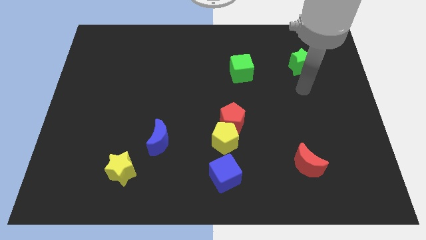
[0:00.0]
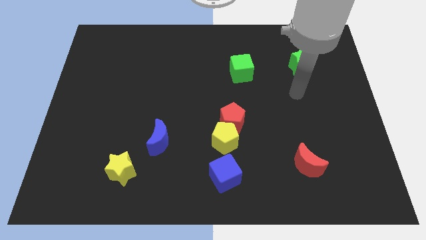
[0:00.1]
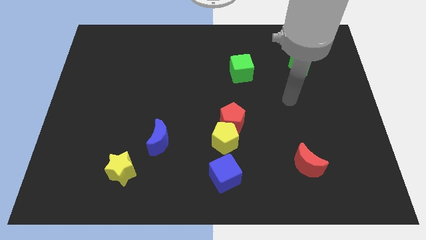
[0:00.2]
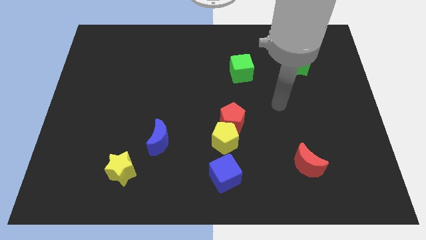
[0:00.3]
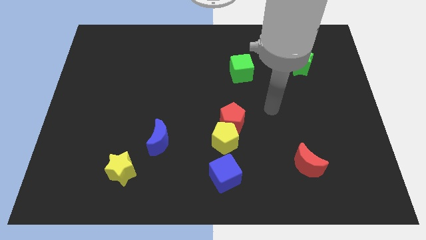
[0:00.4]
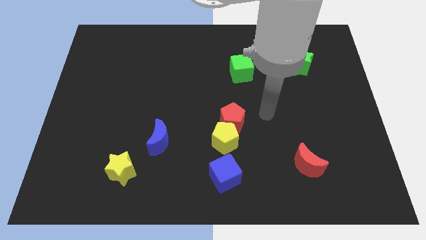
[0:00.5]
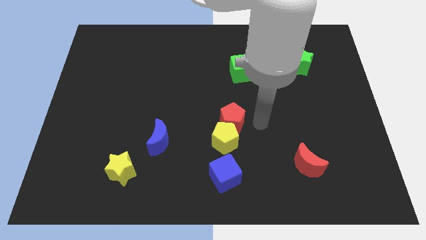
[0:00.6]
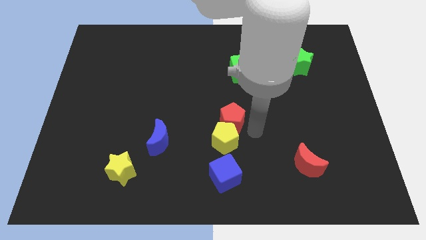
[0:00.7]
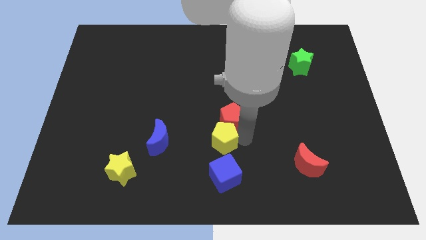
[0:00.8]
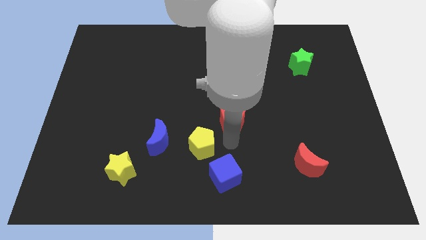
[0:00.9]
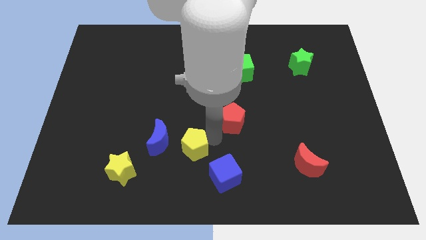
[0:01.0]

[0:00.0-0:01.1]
separate the red pentagon from the yellow pentagon

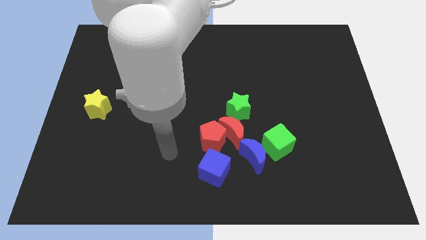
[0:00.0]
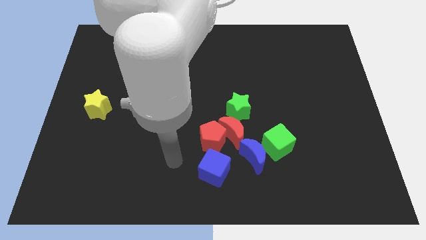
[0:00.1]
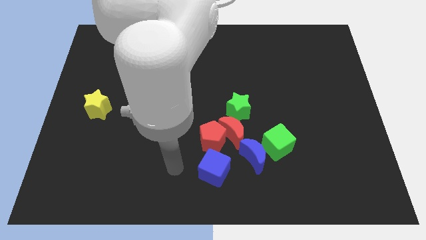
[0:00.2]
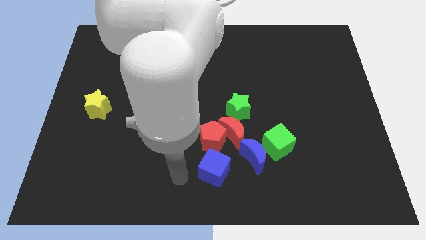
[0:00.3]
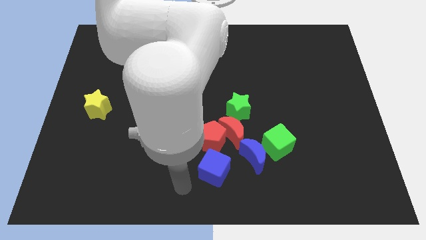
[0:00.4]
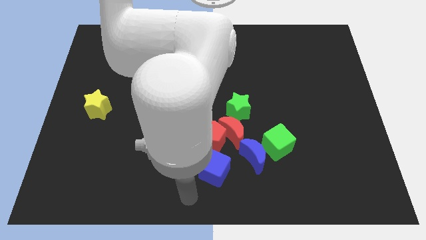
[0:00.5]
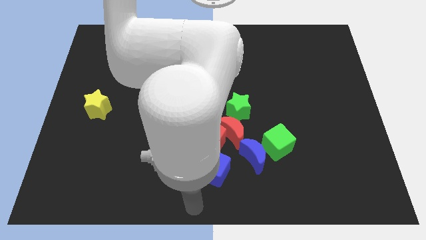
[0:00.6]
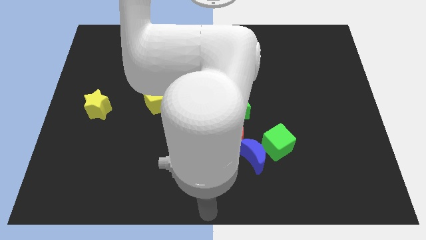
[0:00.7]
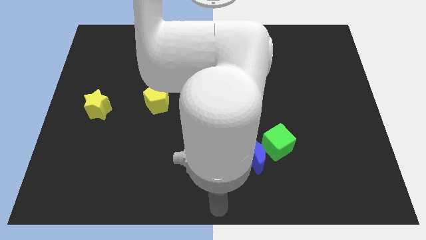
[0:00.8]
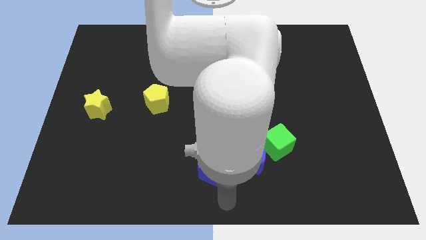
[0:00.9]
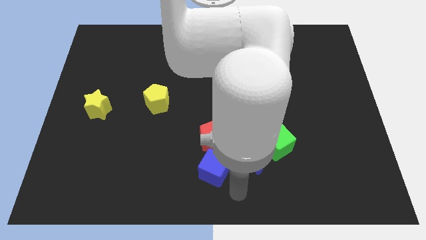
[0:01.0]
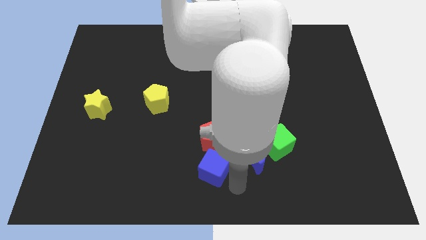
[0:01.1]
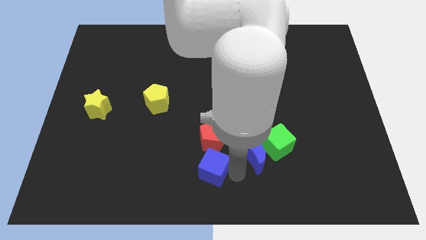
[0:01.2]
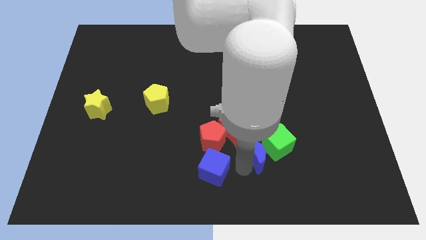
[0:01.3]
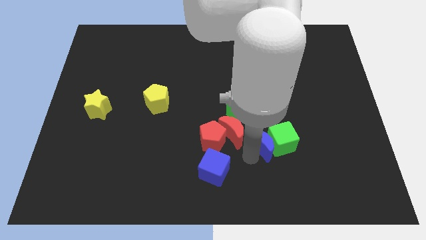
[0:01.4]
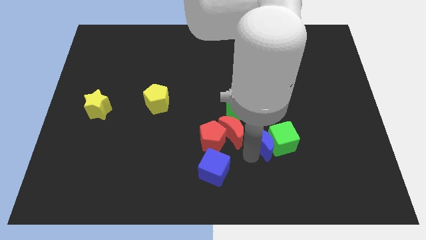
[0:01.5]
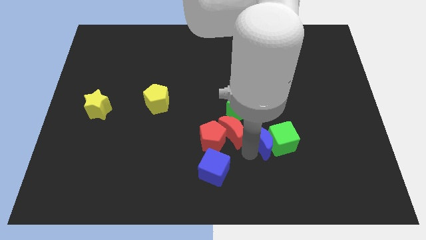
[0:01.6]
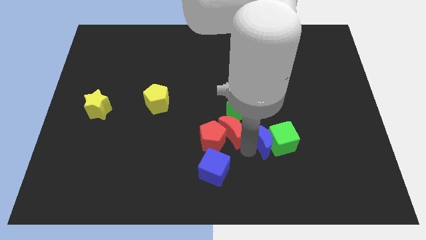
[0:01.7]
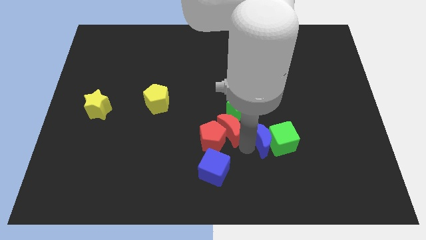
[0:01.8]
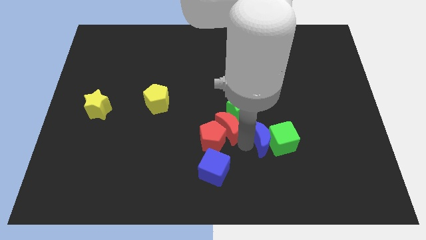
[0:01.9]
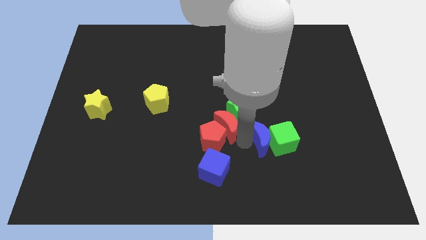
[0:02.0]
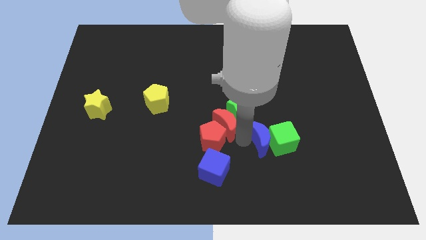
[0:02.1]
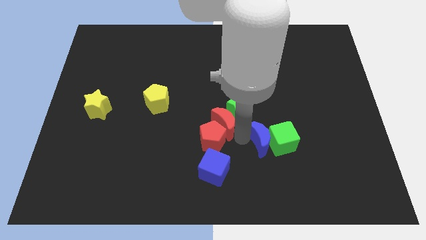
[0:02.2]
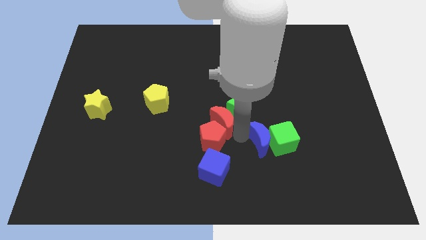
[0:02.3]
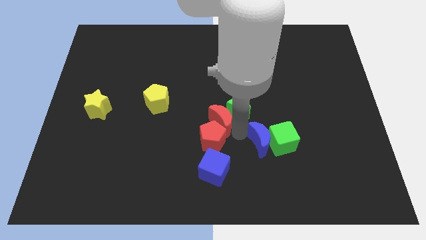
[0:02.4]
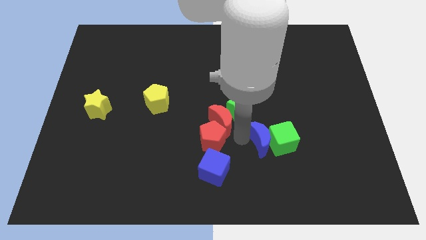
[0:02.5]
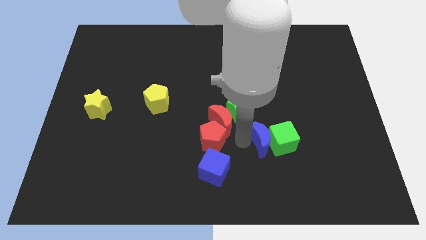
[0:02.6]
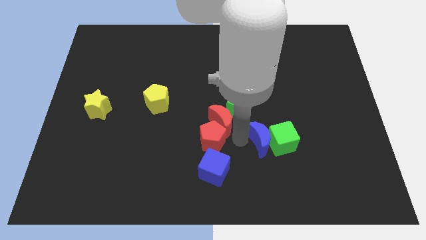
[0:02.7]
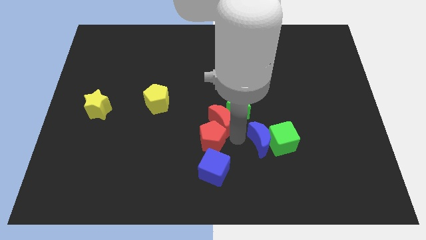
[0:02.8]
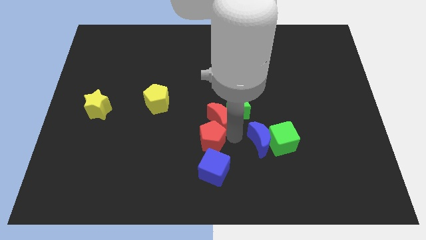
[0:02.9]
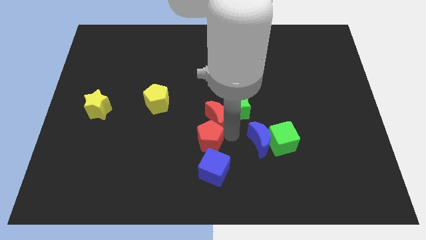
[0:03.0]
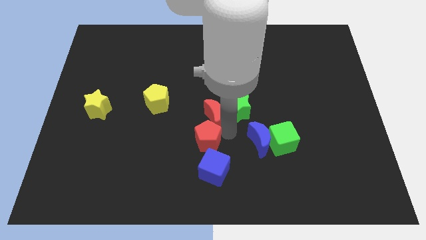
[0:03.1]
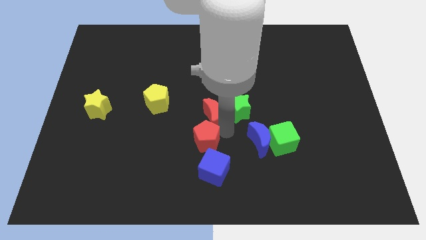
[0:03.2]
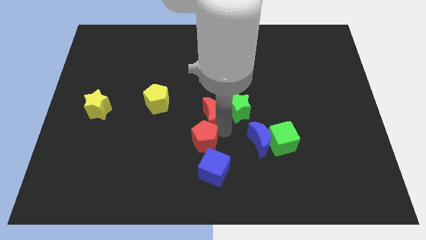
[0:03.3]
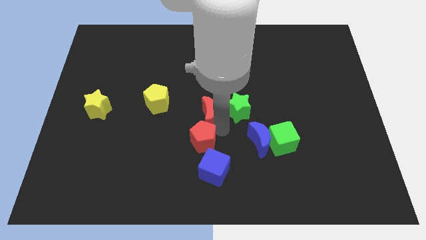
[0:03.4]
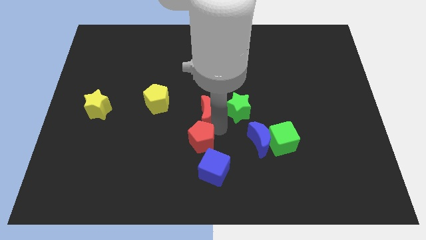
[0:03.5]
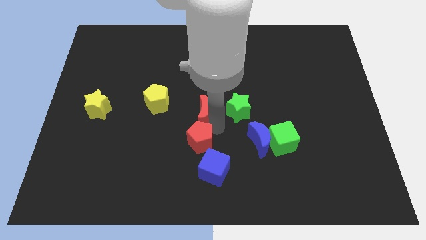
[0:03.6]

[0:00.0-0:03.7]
separate the red moon from the clump

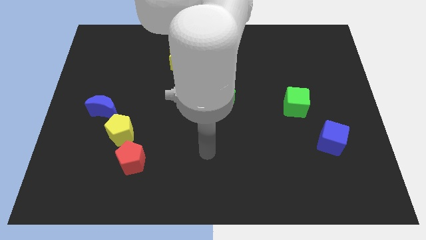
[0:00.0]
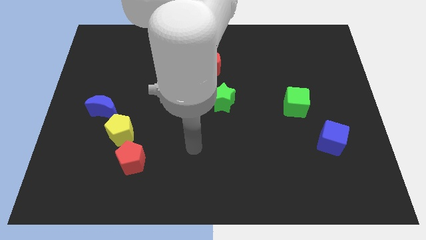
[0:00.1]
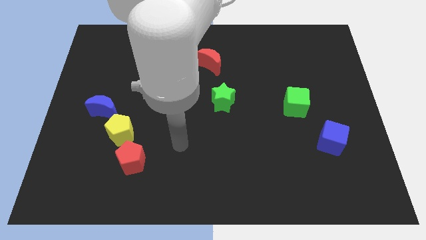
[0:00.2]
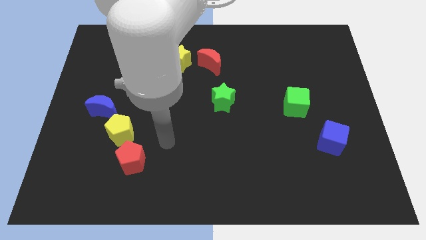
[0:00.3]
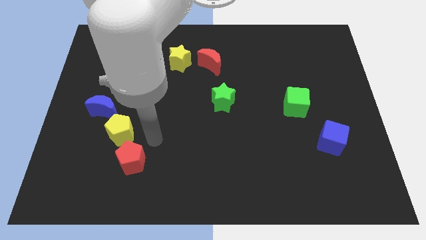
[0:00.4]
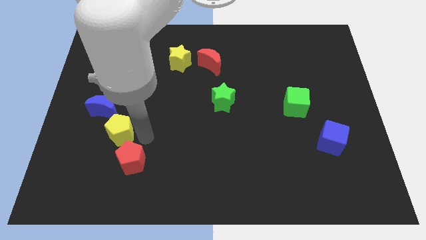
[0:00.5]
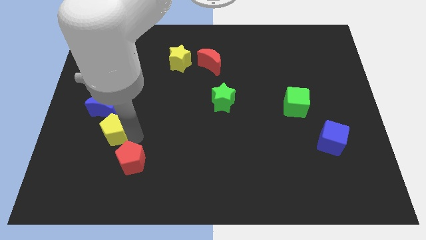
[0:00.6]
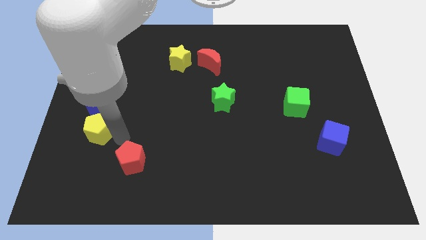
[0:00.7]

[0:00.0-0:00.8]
pull the red pentagon apart from the yellow pentagon

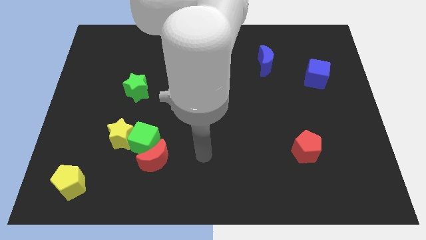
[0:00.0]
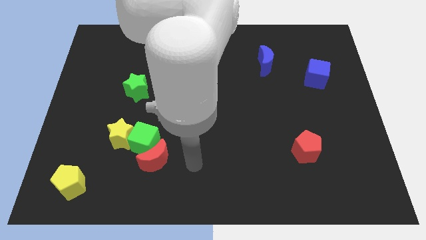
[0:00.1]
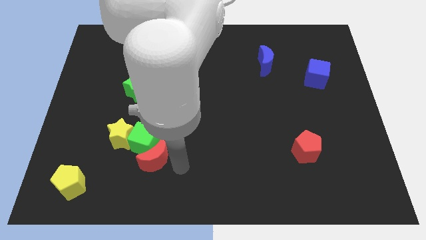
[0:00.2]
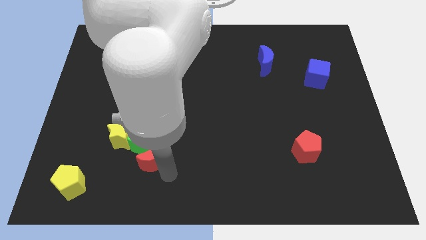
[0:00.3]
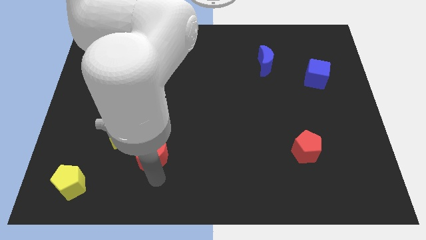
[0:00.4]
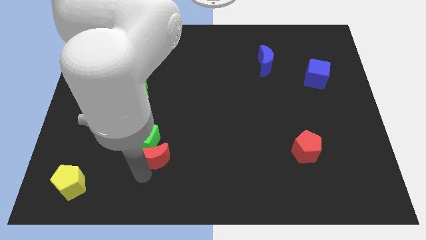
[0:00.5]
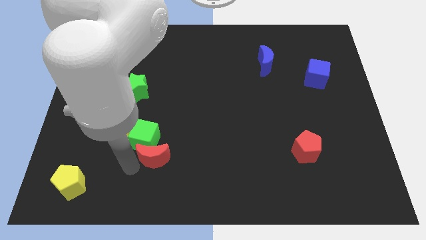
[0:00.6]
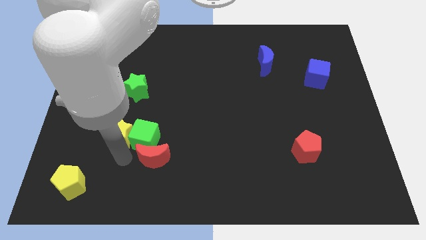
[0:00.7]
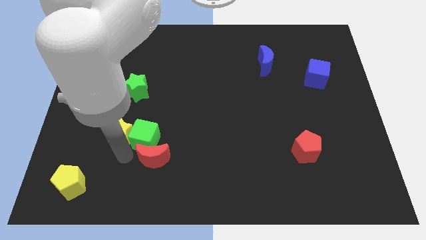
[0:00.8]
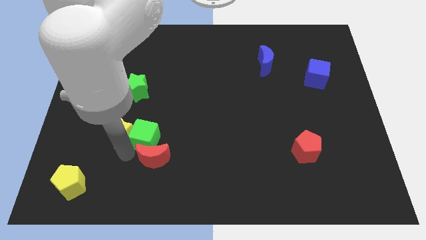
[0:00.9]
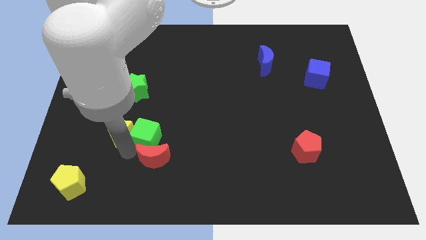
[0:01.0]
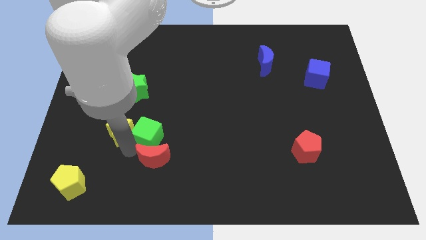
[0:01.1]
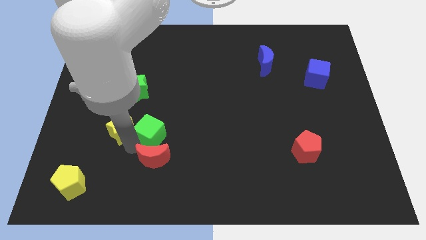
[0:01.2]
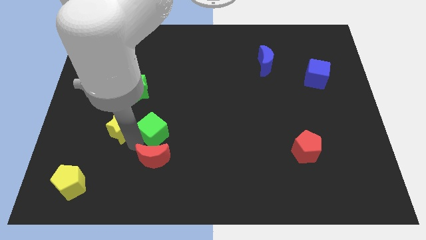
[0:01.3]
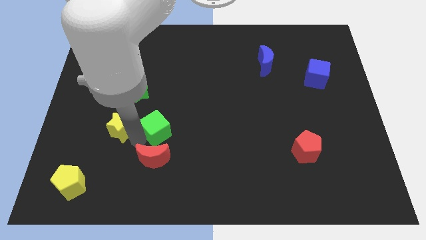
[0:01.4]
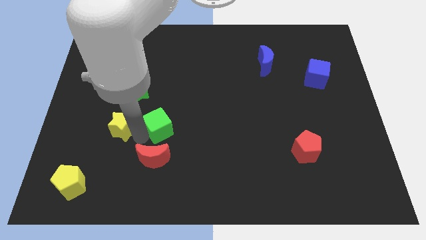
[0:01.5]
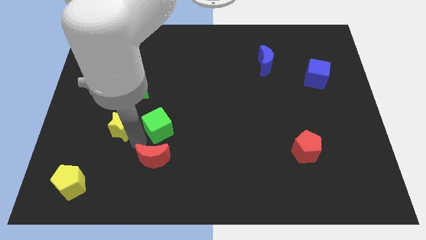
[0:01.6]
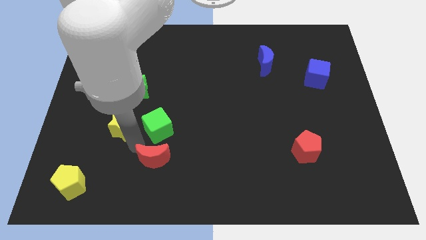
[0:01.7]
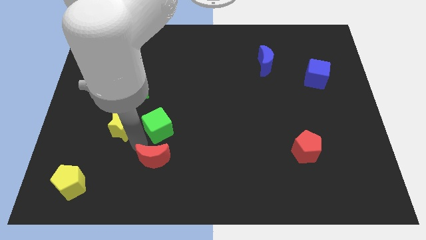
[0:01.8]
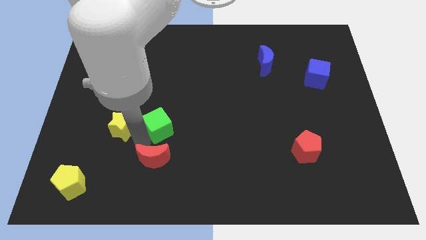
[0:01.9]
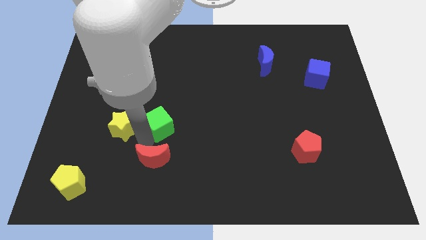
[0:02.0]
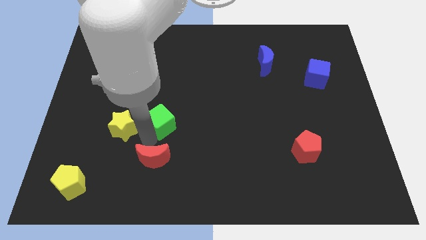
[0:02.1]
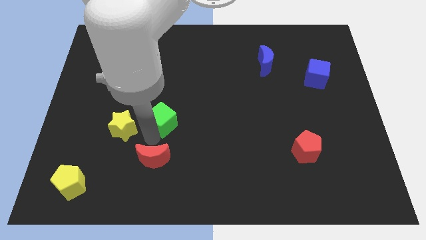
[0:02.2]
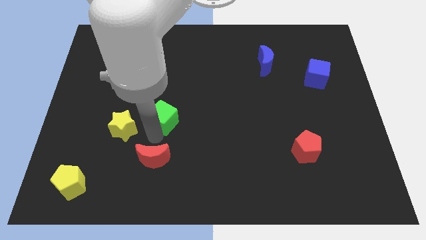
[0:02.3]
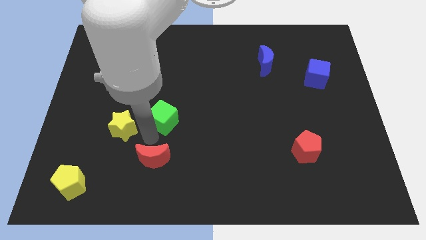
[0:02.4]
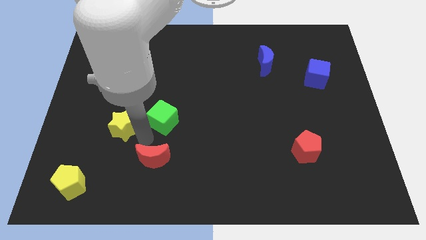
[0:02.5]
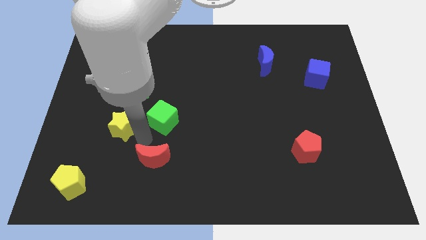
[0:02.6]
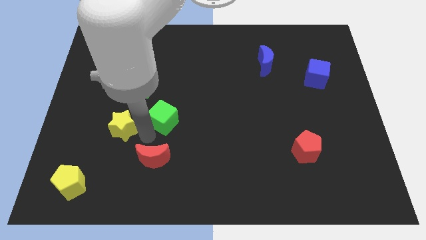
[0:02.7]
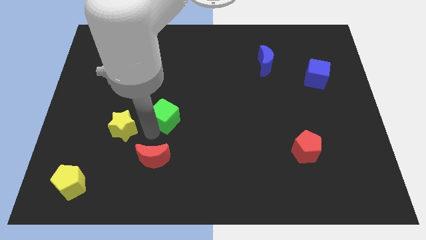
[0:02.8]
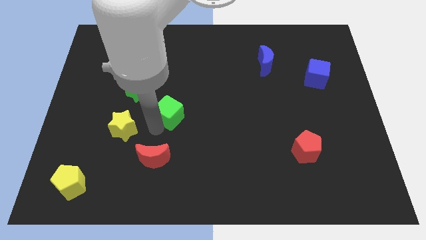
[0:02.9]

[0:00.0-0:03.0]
pull the green cube apart from the red moon and yellow star

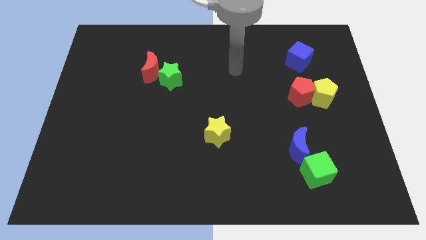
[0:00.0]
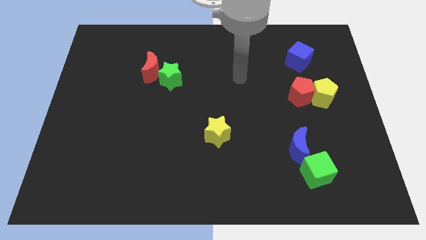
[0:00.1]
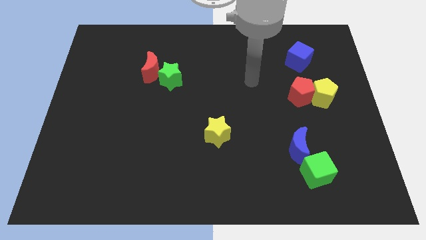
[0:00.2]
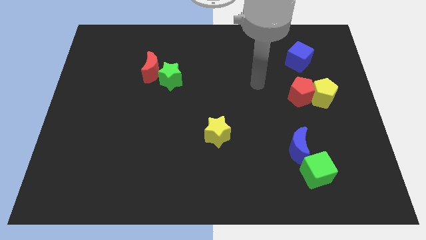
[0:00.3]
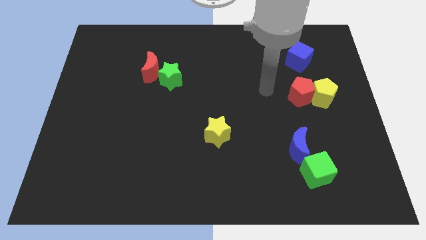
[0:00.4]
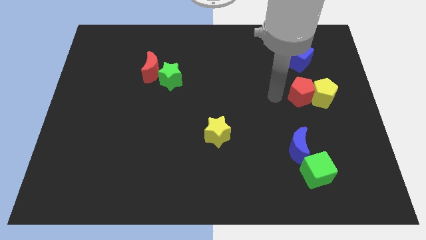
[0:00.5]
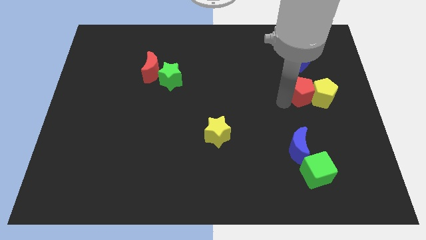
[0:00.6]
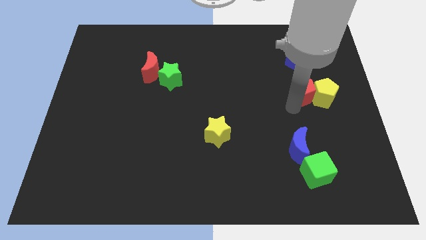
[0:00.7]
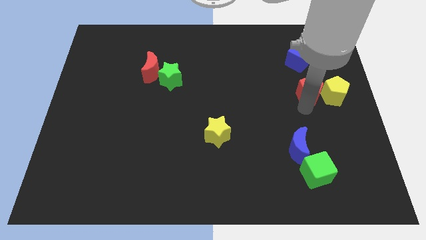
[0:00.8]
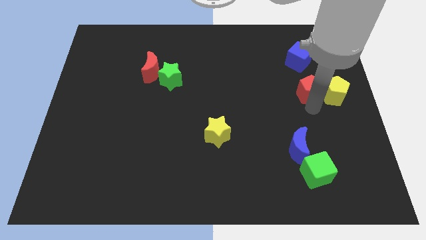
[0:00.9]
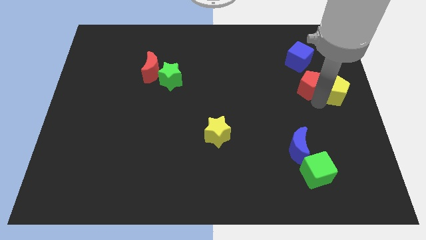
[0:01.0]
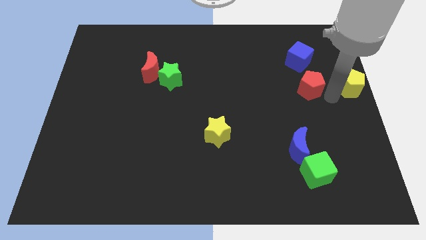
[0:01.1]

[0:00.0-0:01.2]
move the red pentagon away from the yellow pentagon
